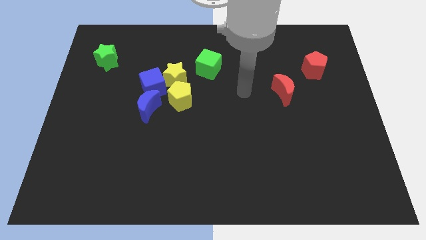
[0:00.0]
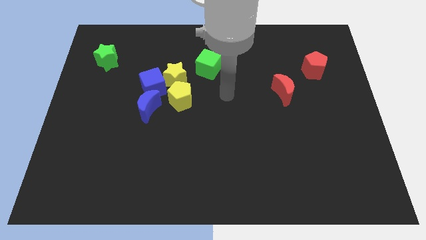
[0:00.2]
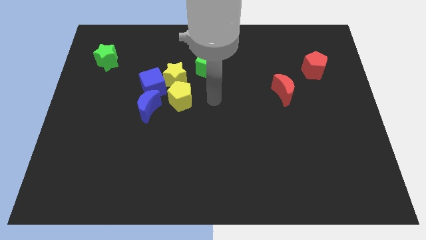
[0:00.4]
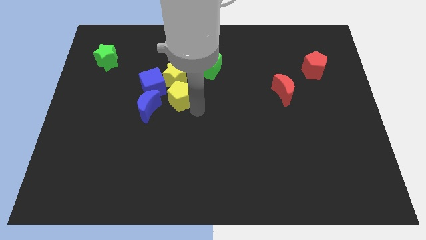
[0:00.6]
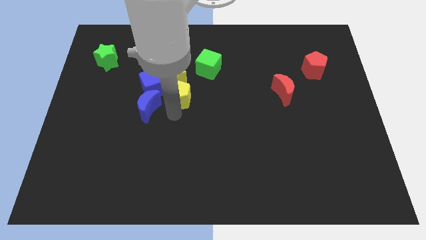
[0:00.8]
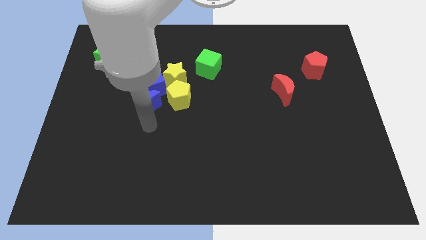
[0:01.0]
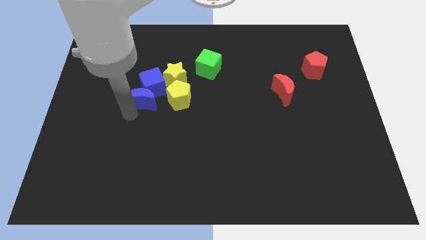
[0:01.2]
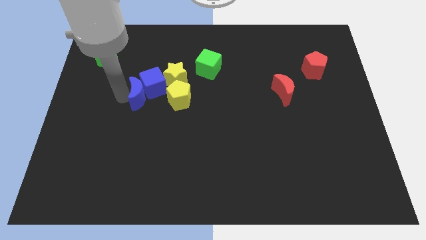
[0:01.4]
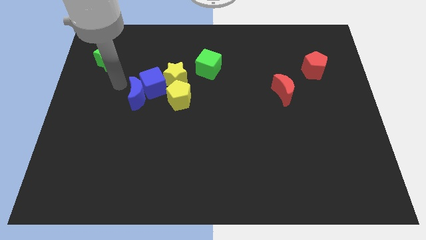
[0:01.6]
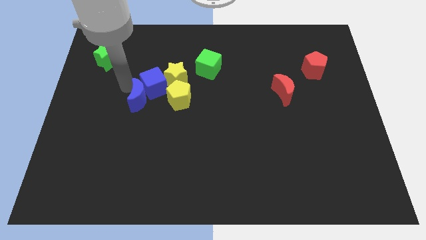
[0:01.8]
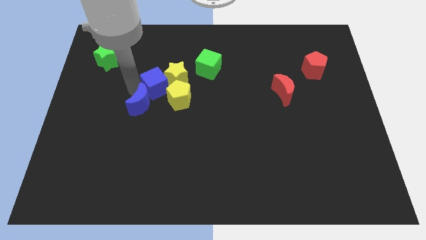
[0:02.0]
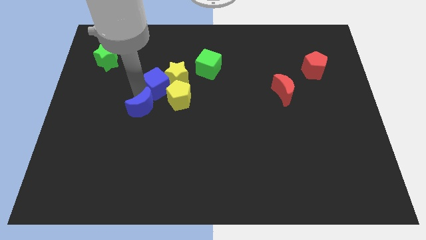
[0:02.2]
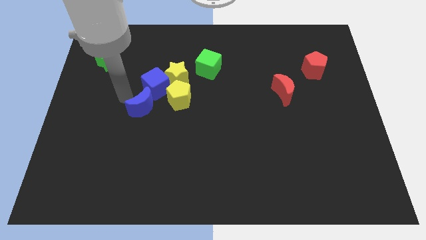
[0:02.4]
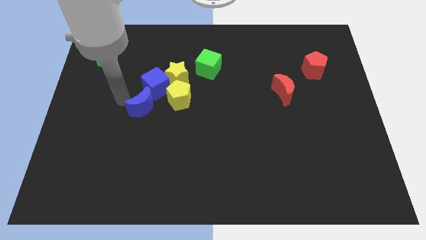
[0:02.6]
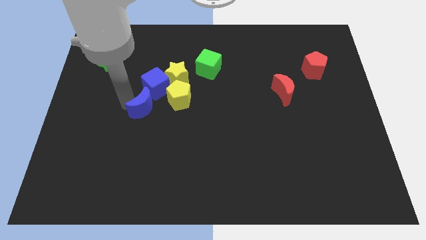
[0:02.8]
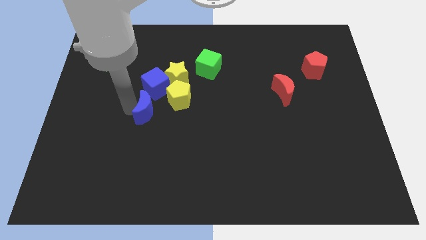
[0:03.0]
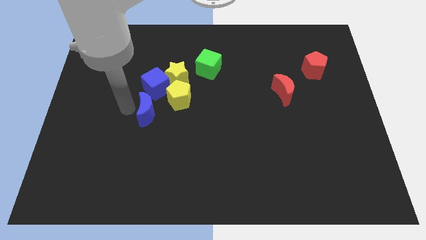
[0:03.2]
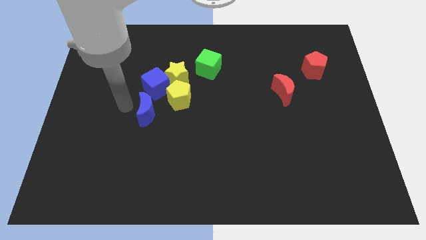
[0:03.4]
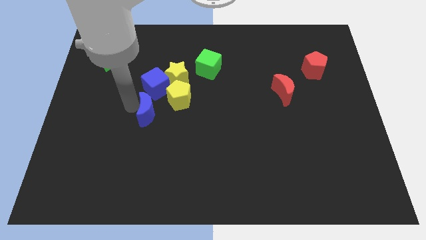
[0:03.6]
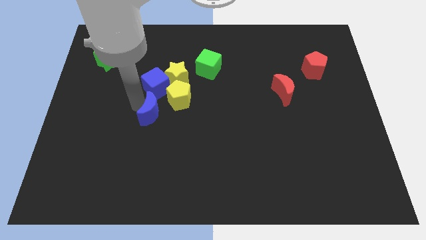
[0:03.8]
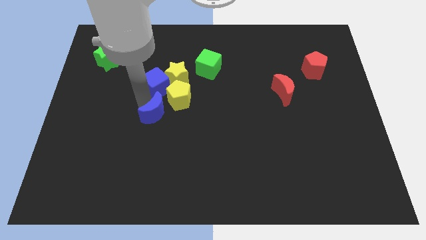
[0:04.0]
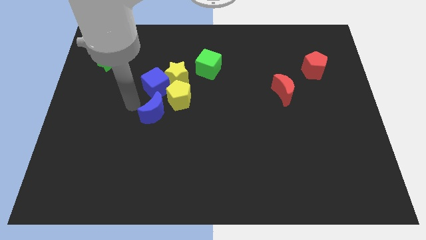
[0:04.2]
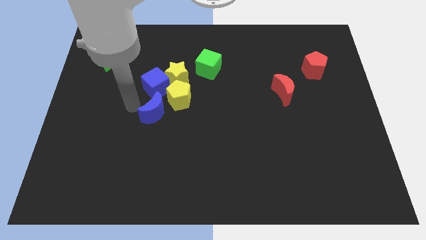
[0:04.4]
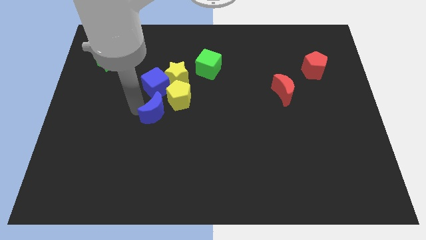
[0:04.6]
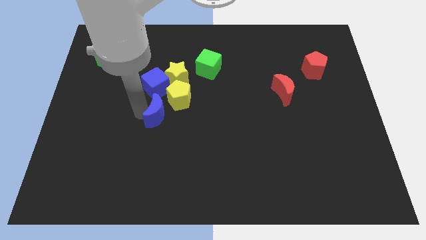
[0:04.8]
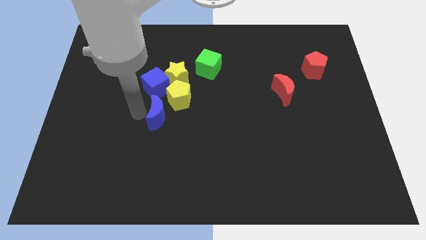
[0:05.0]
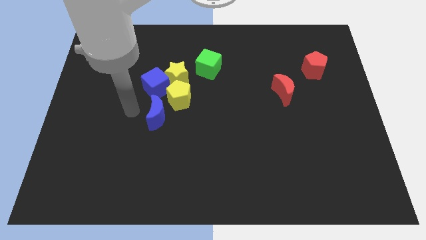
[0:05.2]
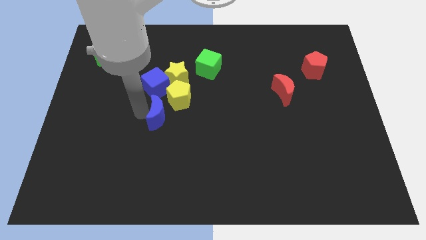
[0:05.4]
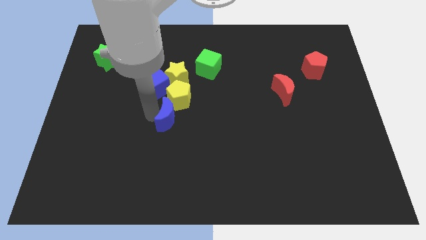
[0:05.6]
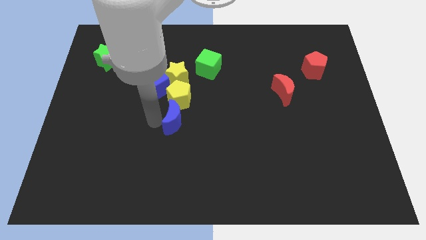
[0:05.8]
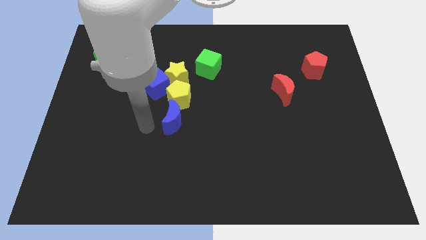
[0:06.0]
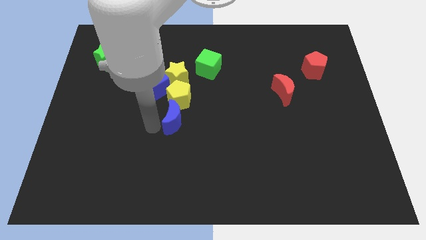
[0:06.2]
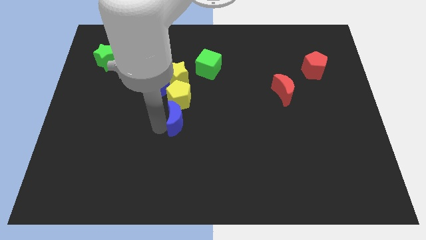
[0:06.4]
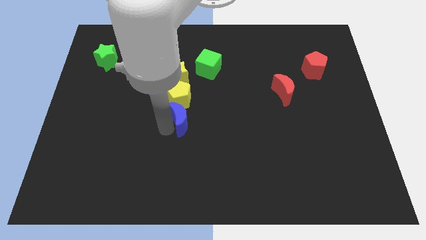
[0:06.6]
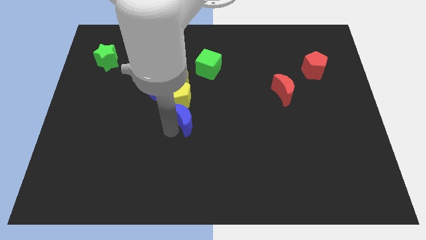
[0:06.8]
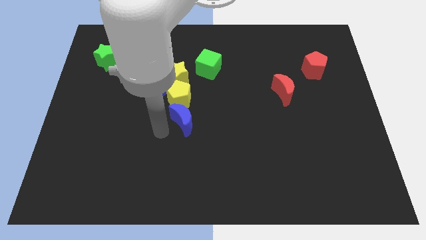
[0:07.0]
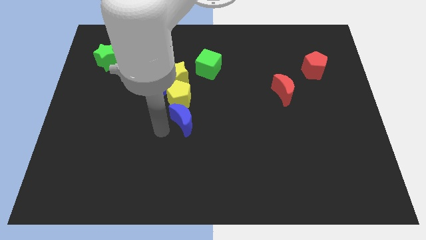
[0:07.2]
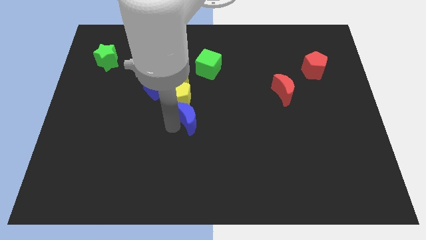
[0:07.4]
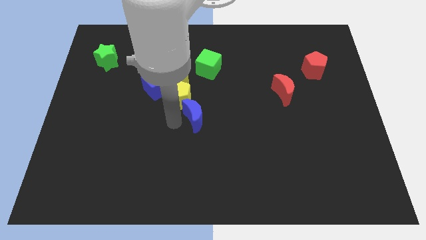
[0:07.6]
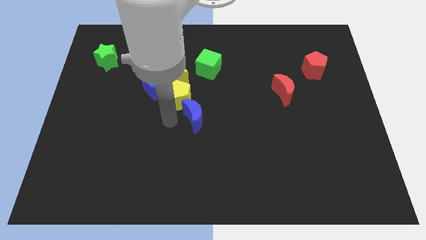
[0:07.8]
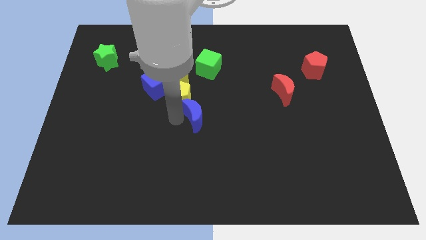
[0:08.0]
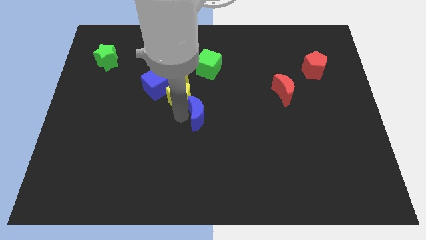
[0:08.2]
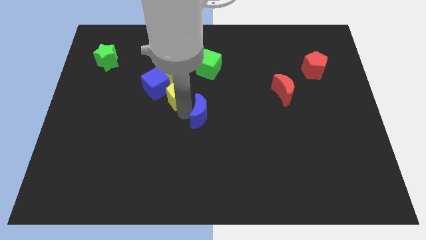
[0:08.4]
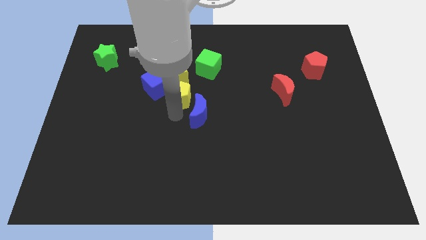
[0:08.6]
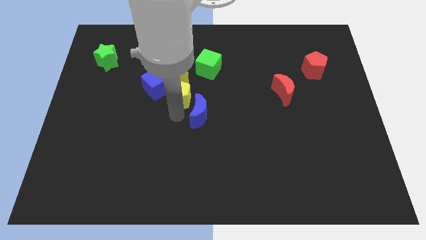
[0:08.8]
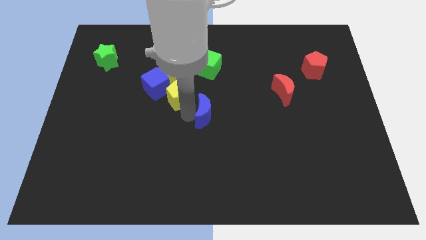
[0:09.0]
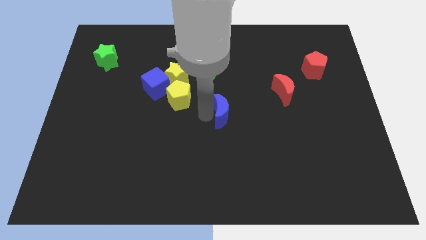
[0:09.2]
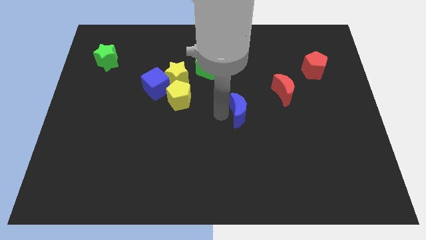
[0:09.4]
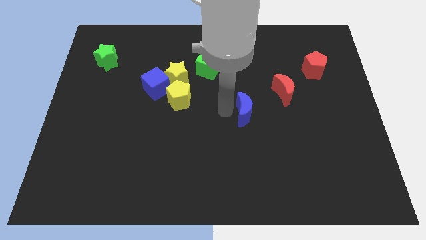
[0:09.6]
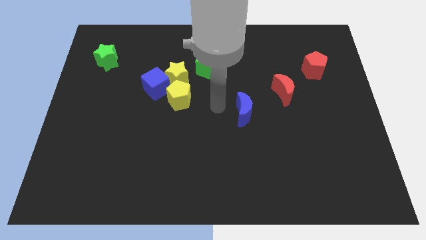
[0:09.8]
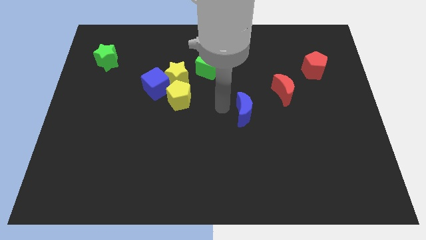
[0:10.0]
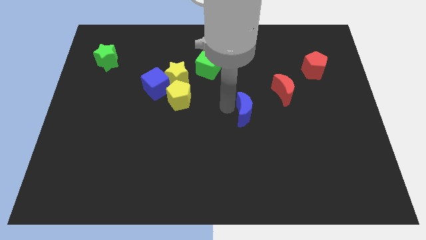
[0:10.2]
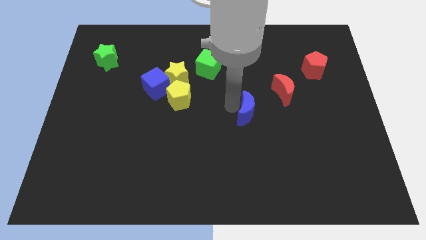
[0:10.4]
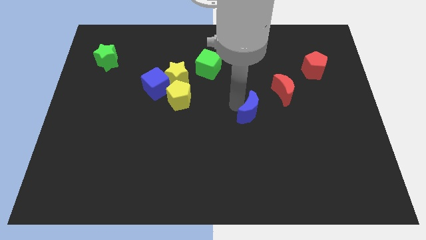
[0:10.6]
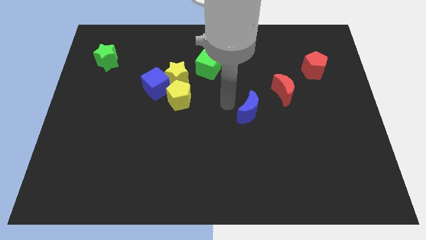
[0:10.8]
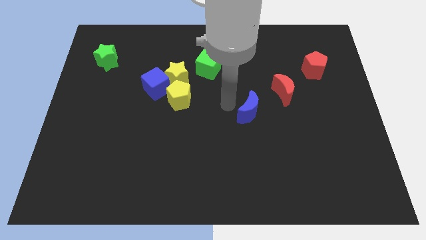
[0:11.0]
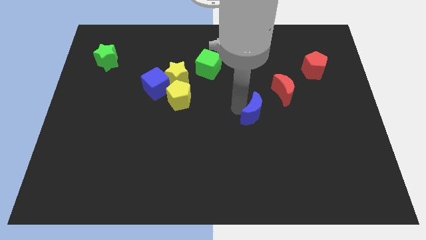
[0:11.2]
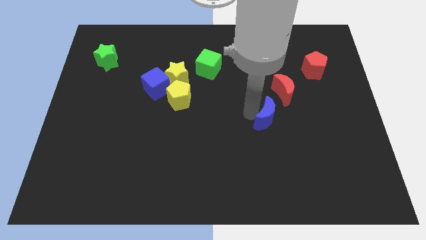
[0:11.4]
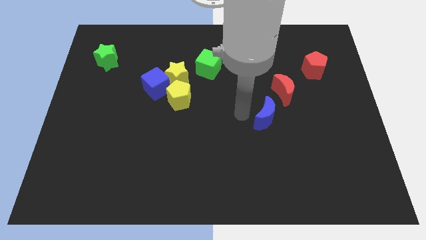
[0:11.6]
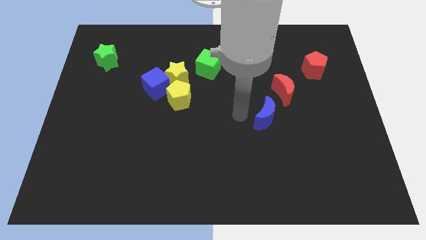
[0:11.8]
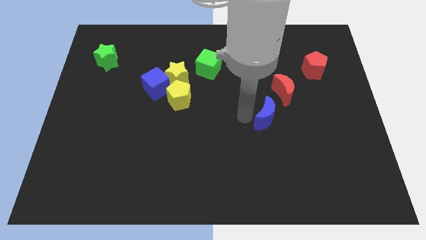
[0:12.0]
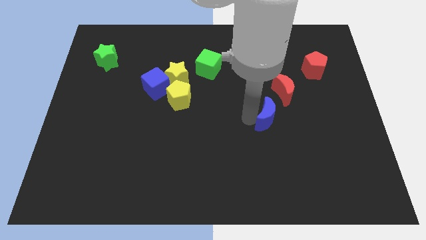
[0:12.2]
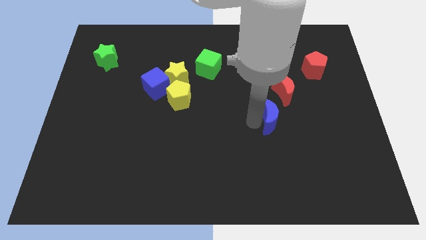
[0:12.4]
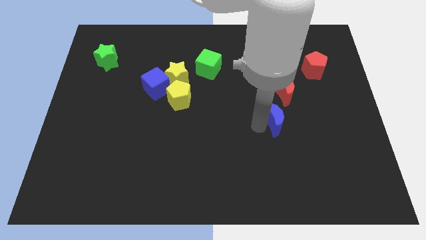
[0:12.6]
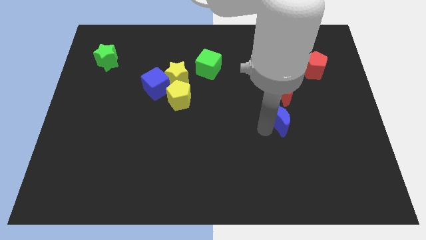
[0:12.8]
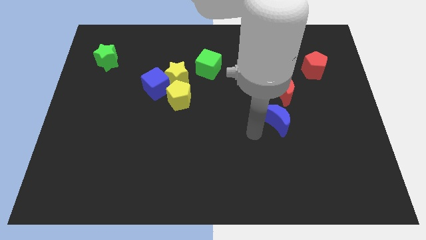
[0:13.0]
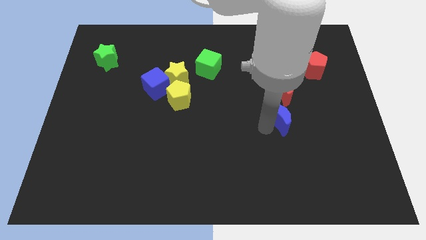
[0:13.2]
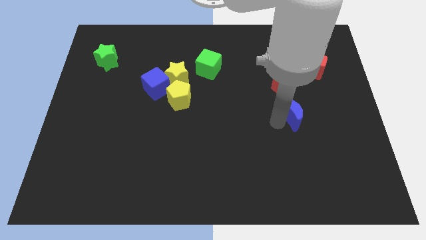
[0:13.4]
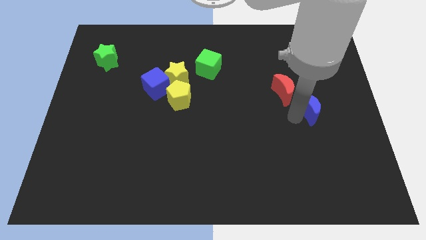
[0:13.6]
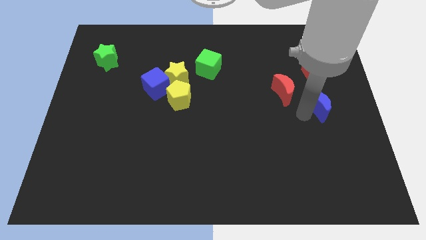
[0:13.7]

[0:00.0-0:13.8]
move the blue moon to the right of the red moon
